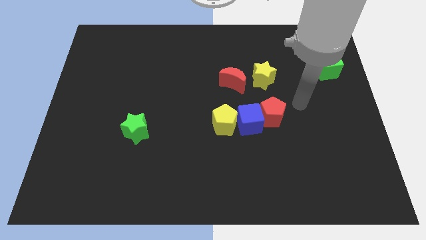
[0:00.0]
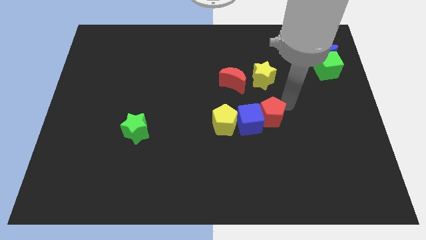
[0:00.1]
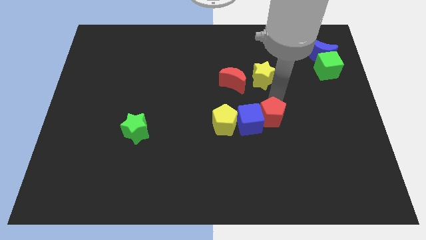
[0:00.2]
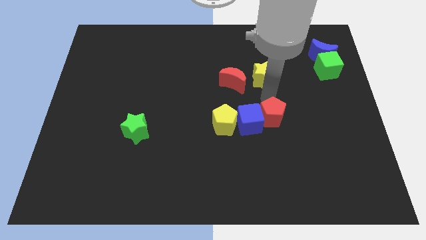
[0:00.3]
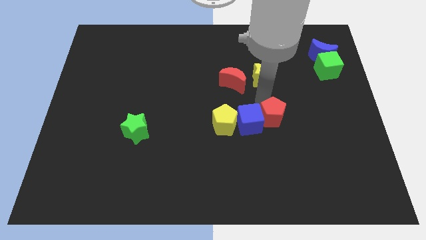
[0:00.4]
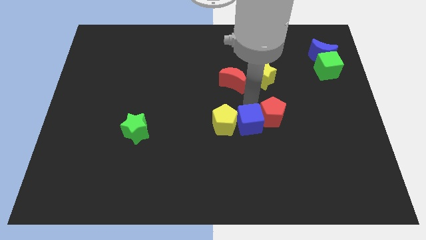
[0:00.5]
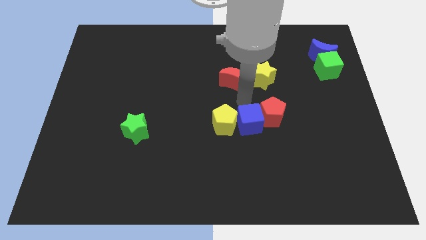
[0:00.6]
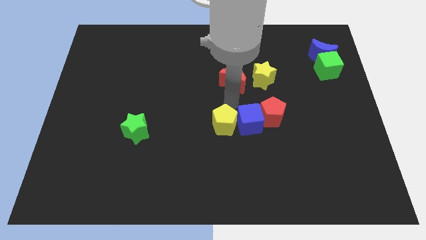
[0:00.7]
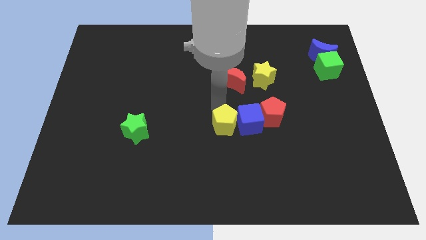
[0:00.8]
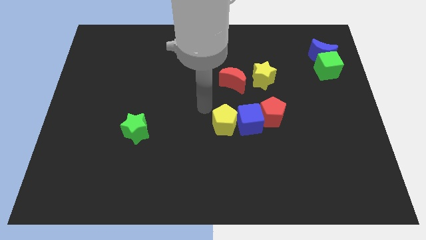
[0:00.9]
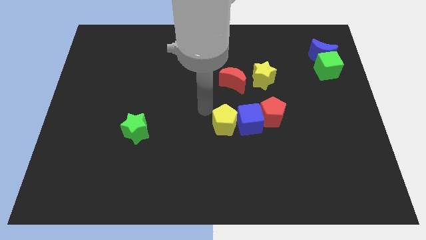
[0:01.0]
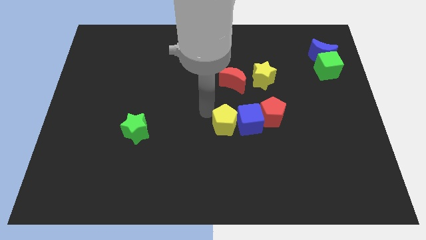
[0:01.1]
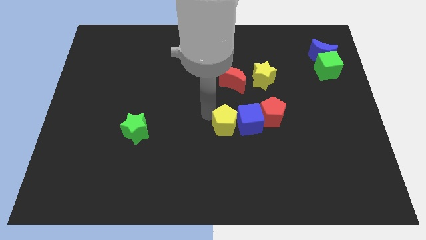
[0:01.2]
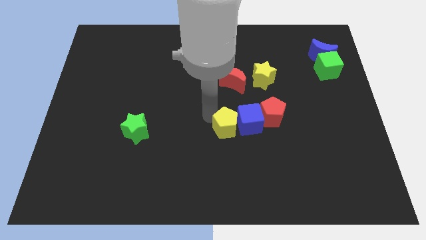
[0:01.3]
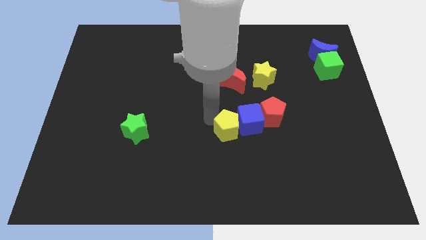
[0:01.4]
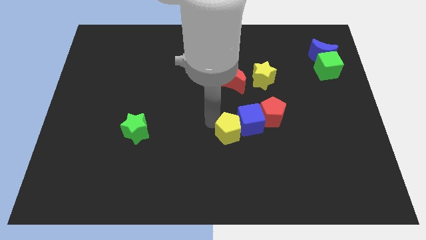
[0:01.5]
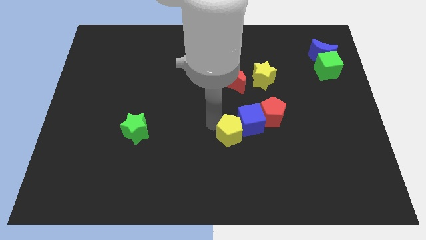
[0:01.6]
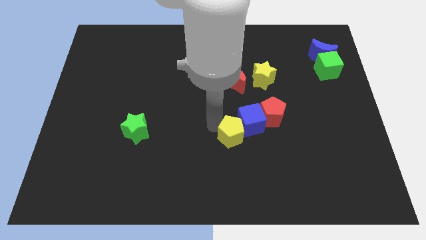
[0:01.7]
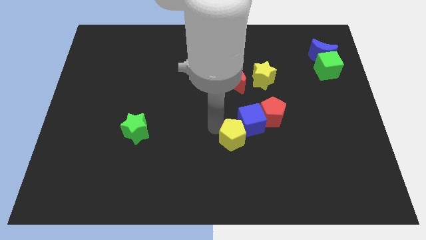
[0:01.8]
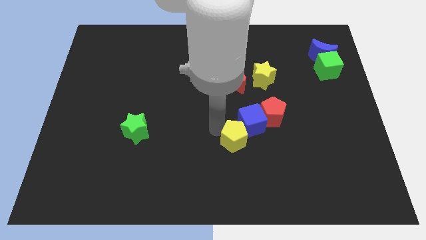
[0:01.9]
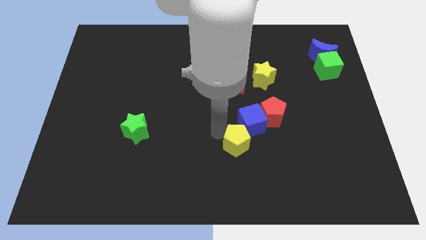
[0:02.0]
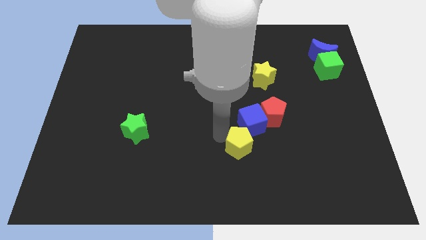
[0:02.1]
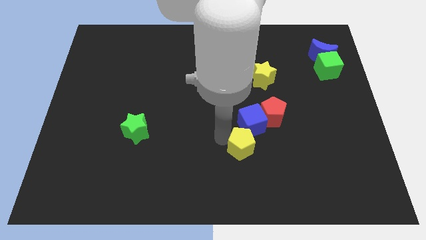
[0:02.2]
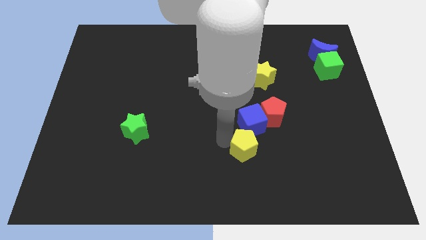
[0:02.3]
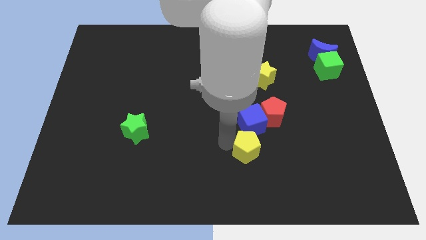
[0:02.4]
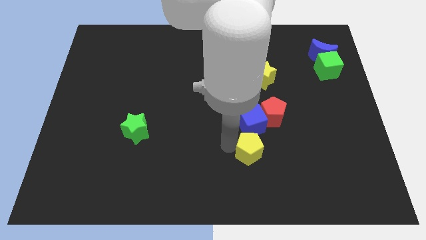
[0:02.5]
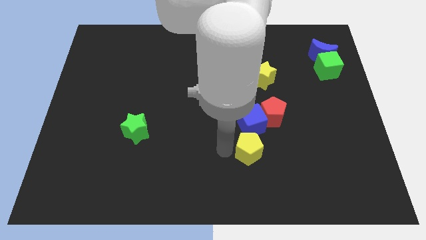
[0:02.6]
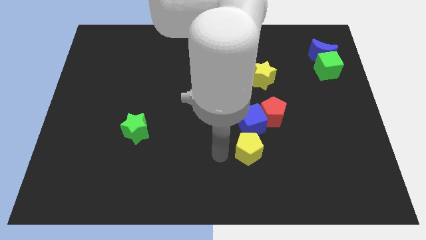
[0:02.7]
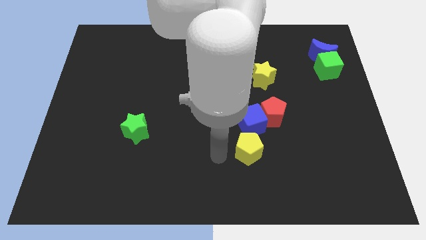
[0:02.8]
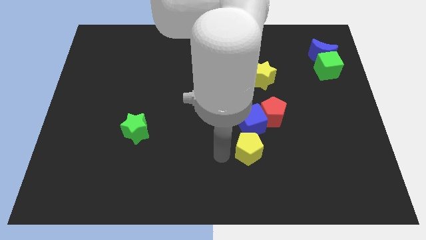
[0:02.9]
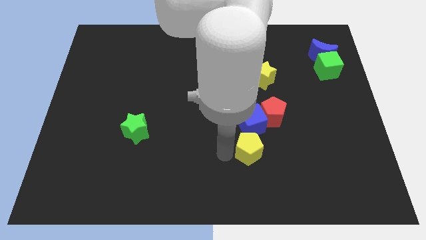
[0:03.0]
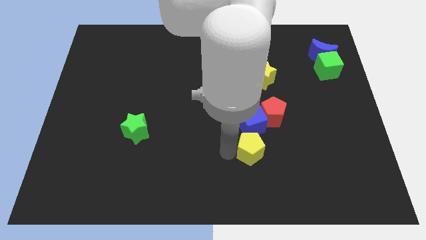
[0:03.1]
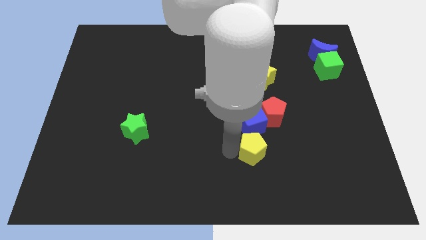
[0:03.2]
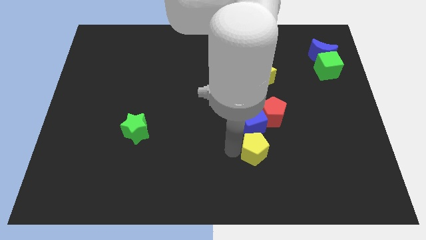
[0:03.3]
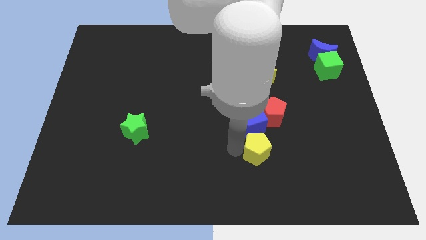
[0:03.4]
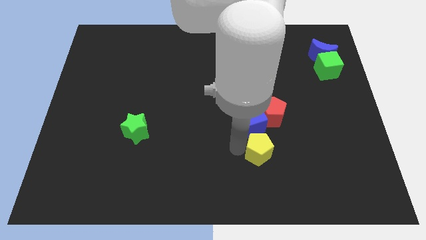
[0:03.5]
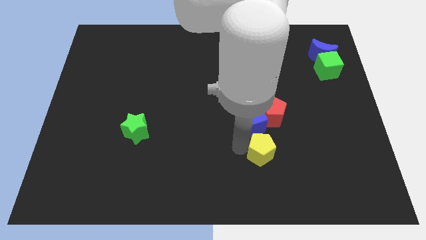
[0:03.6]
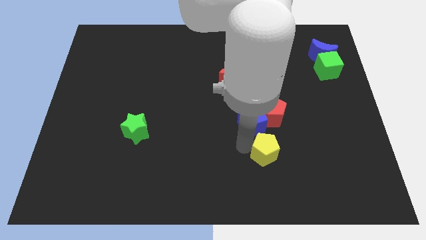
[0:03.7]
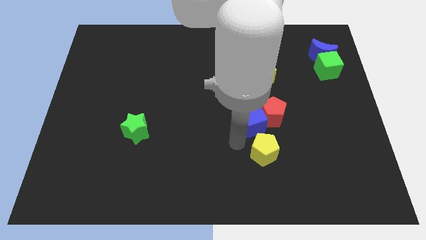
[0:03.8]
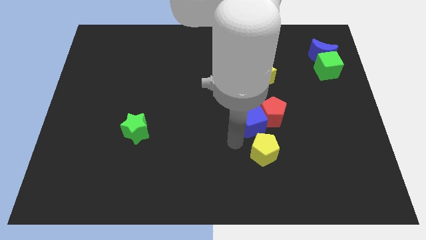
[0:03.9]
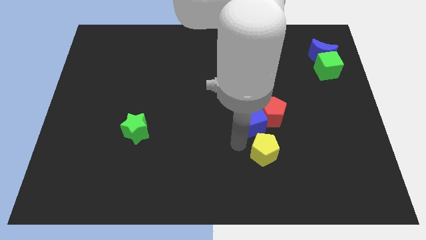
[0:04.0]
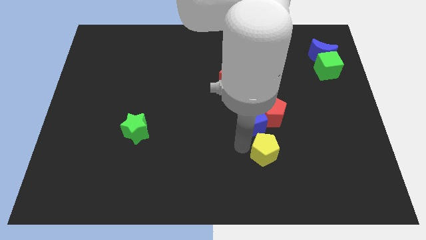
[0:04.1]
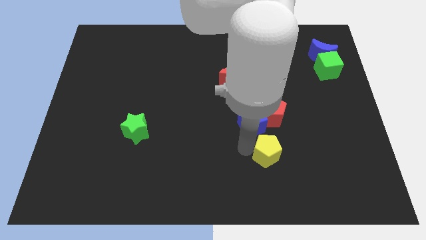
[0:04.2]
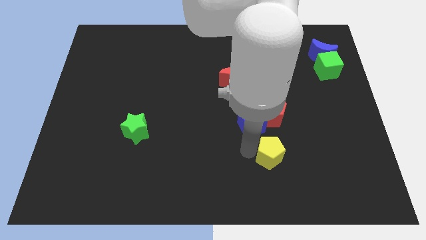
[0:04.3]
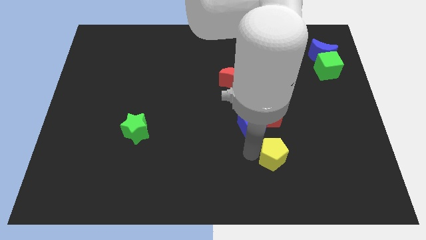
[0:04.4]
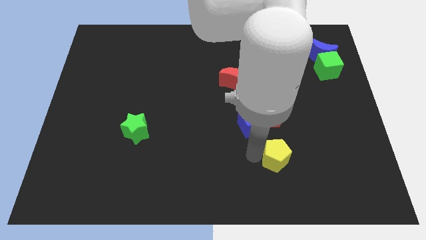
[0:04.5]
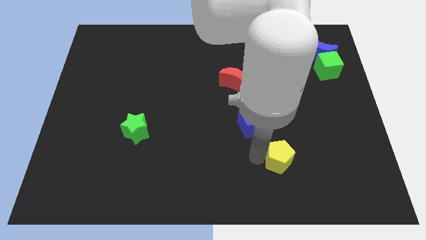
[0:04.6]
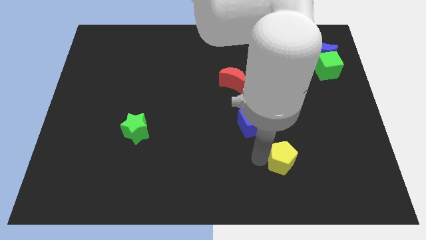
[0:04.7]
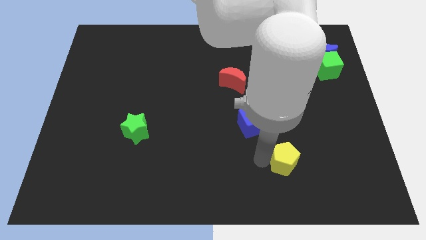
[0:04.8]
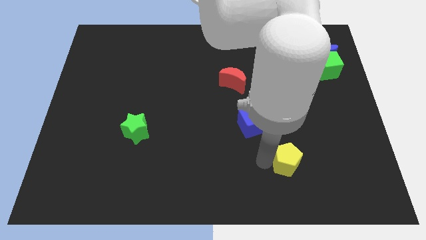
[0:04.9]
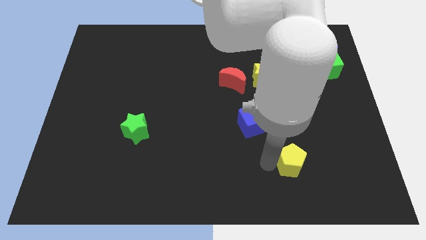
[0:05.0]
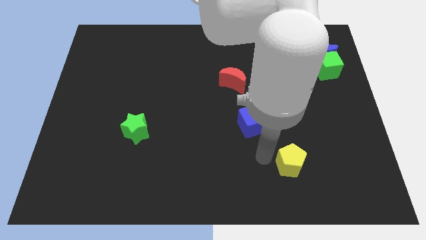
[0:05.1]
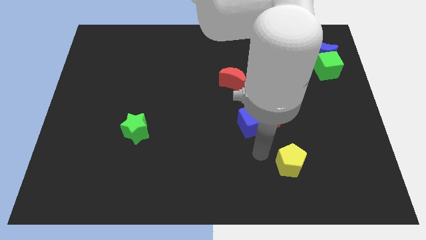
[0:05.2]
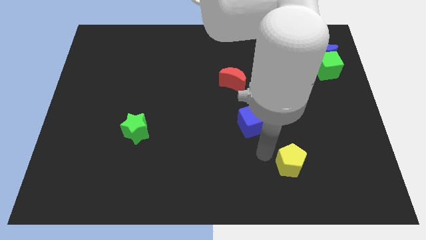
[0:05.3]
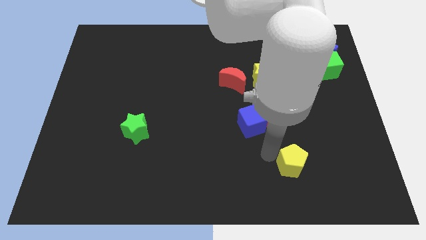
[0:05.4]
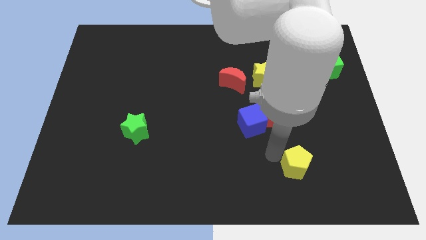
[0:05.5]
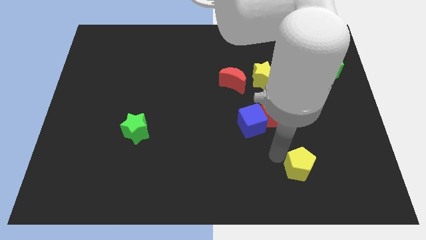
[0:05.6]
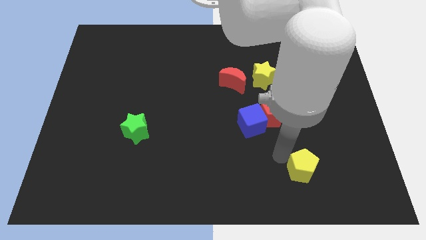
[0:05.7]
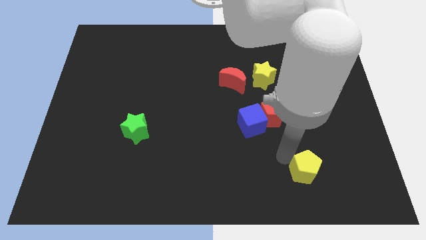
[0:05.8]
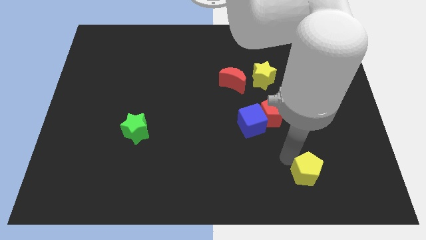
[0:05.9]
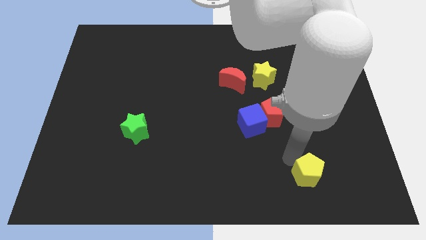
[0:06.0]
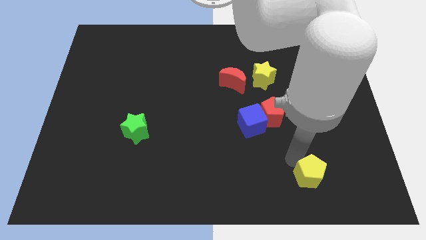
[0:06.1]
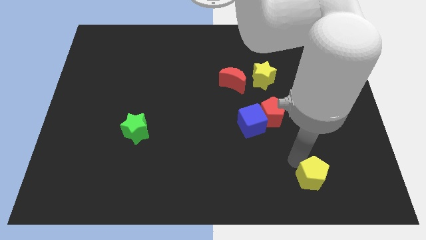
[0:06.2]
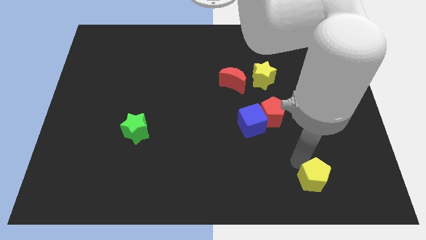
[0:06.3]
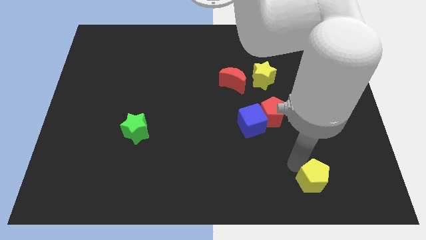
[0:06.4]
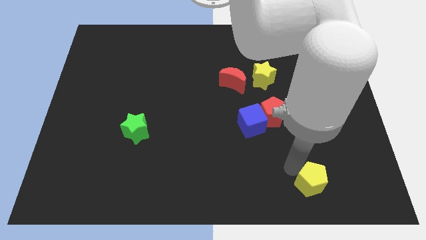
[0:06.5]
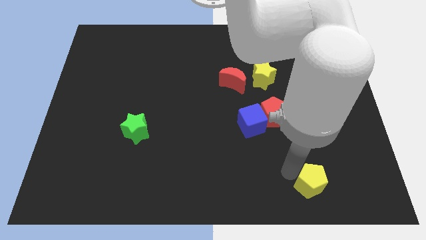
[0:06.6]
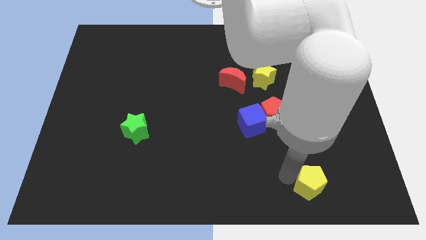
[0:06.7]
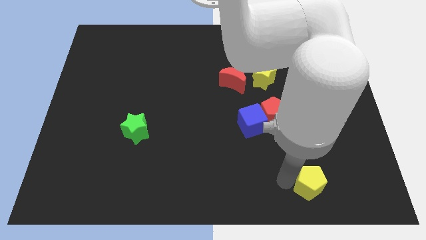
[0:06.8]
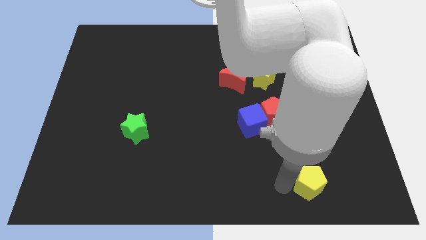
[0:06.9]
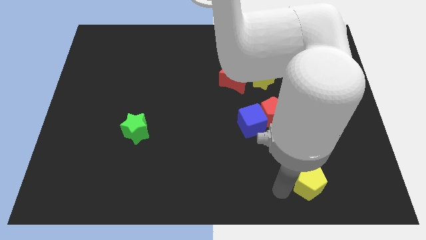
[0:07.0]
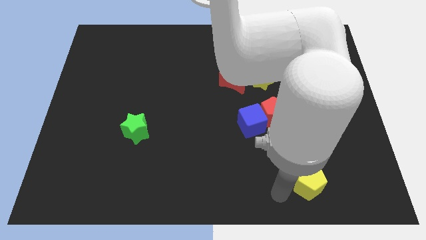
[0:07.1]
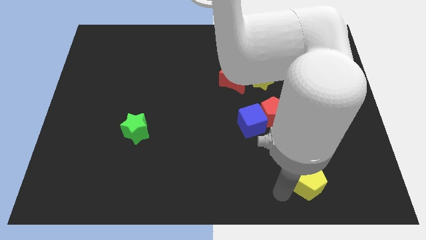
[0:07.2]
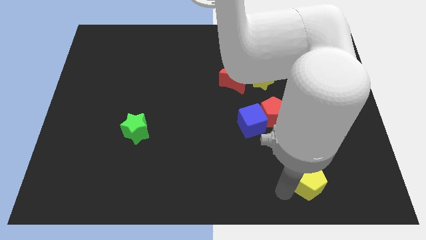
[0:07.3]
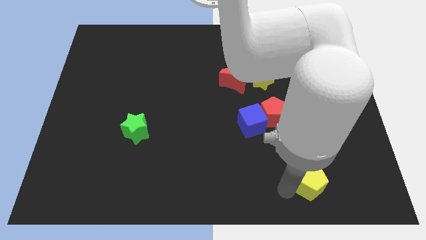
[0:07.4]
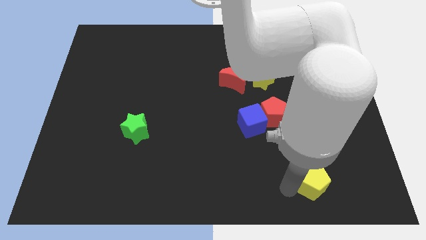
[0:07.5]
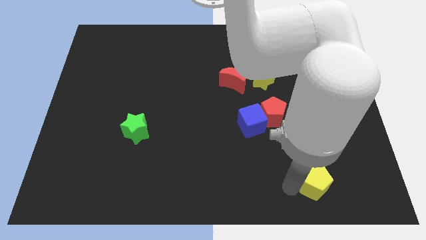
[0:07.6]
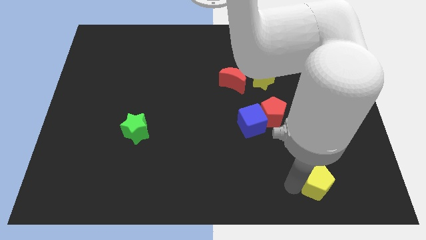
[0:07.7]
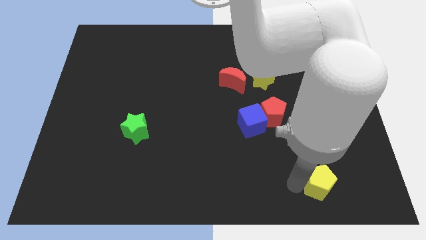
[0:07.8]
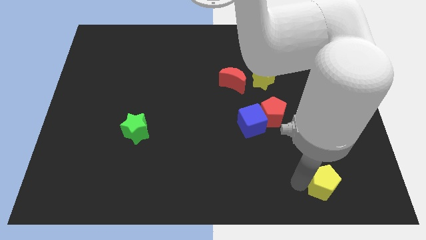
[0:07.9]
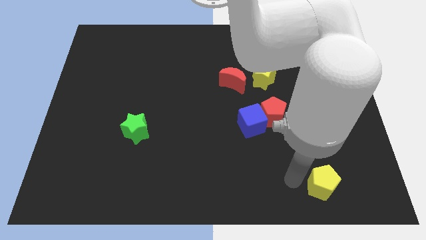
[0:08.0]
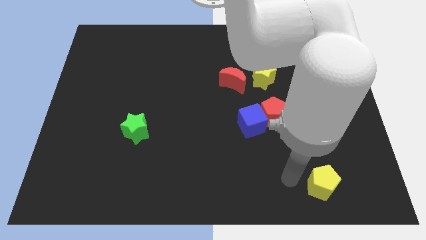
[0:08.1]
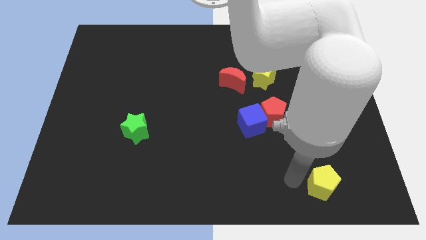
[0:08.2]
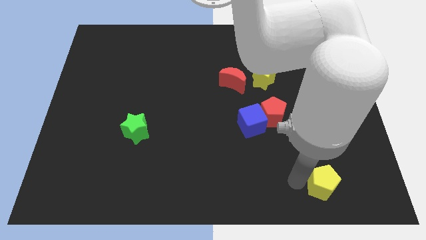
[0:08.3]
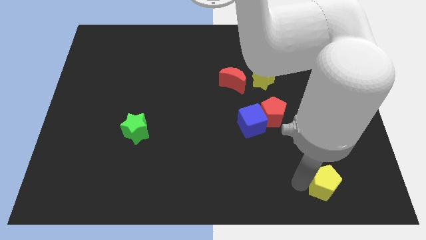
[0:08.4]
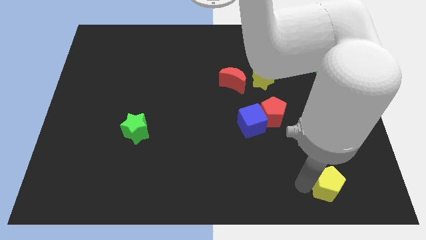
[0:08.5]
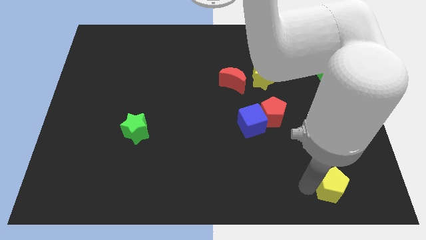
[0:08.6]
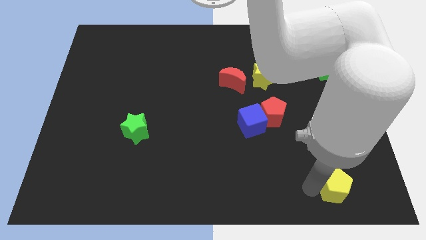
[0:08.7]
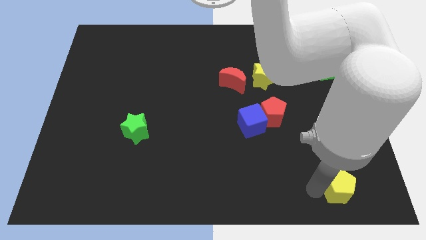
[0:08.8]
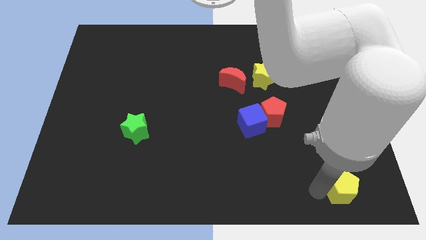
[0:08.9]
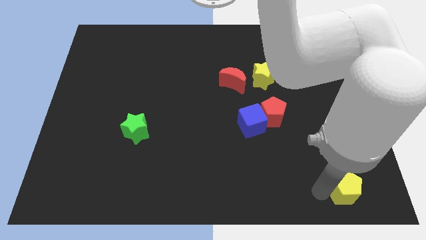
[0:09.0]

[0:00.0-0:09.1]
push the yellow pentagon to the bottom right corner
